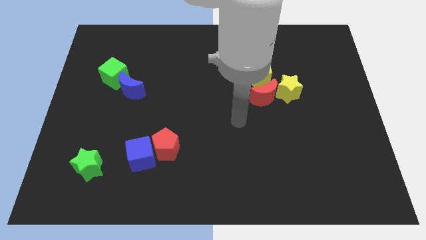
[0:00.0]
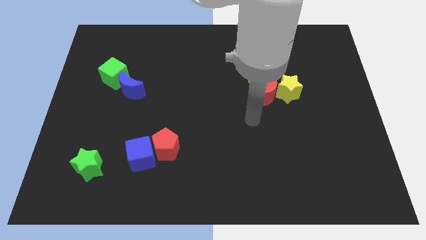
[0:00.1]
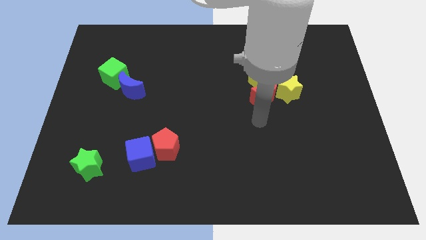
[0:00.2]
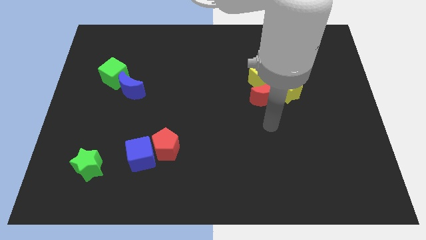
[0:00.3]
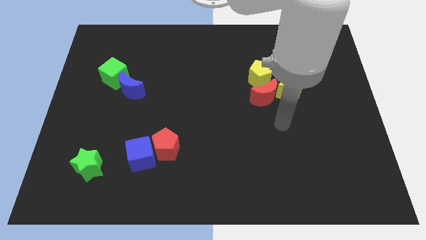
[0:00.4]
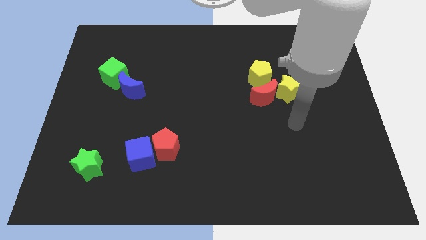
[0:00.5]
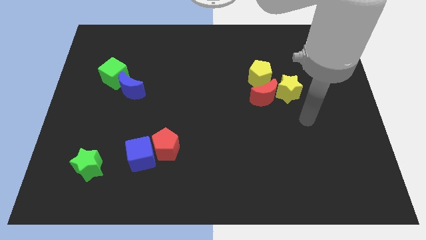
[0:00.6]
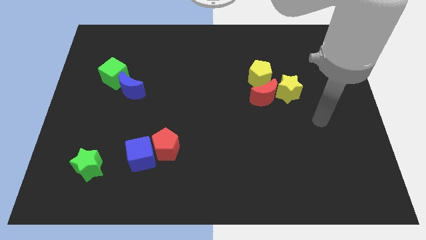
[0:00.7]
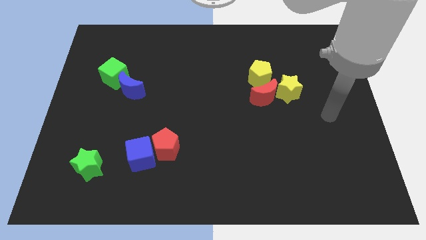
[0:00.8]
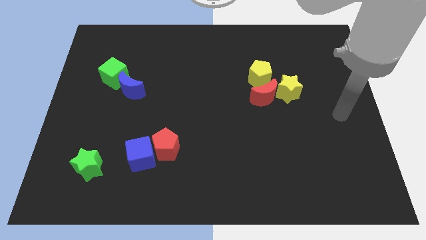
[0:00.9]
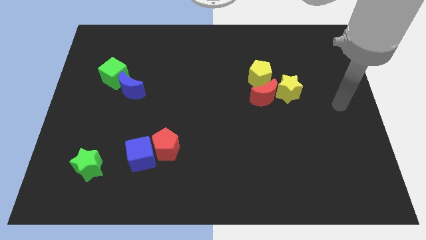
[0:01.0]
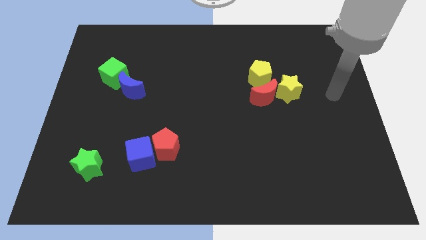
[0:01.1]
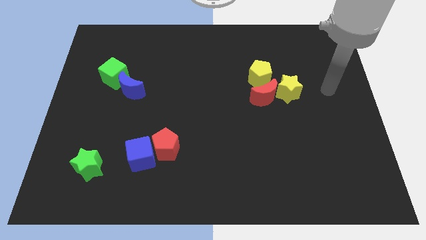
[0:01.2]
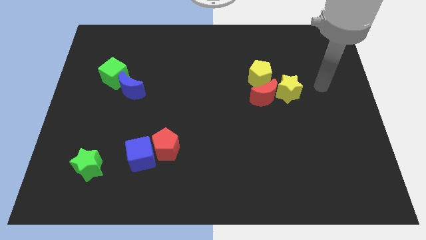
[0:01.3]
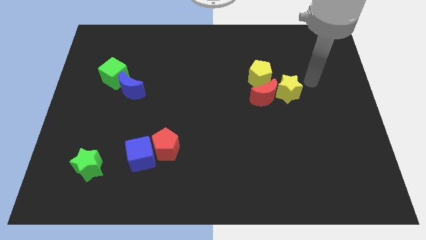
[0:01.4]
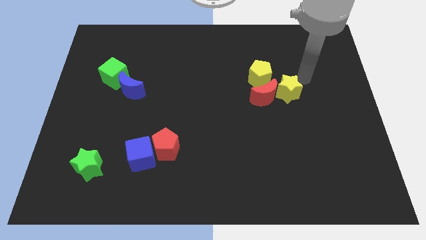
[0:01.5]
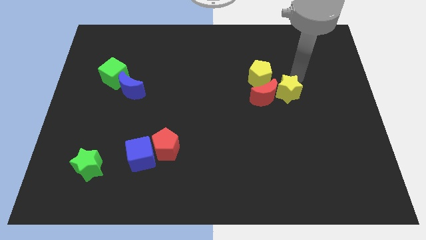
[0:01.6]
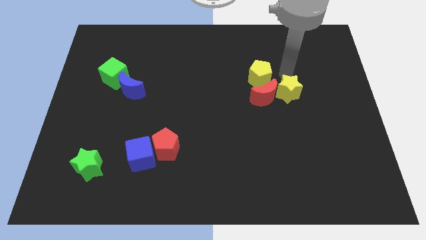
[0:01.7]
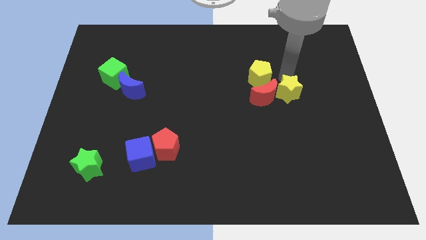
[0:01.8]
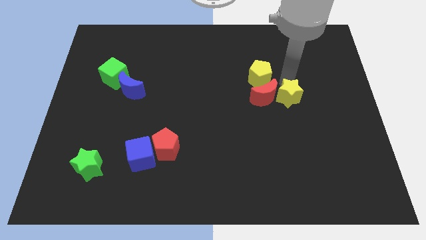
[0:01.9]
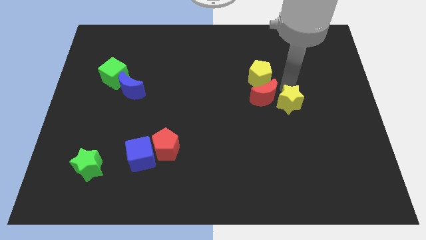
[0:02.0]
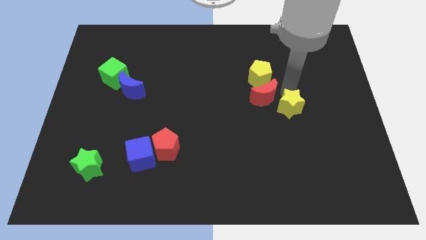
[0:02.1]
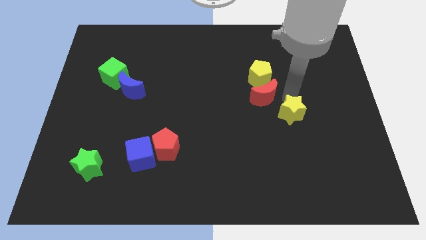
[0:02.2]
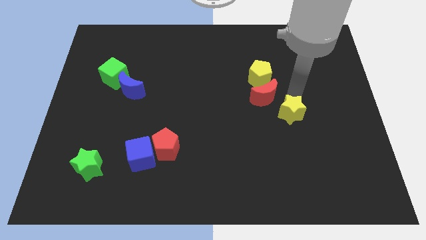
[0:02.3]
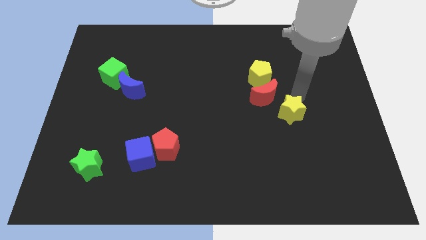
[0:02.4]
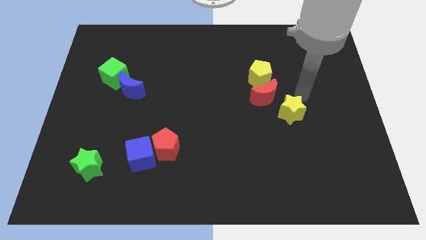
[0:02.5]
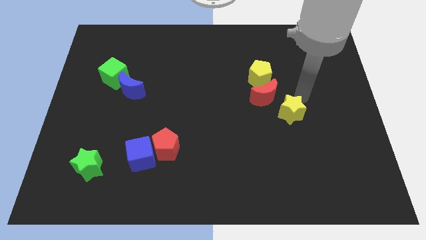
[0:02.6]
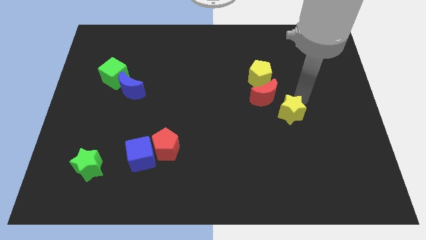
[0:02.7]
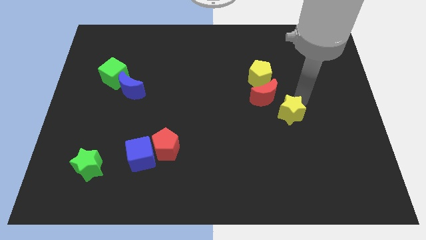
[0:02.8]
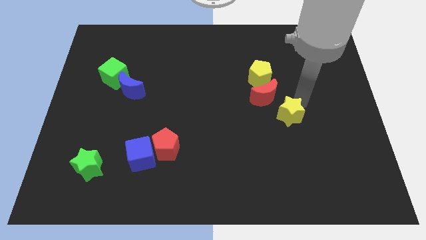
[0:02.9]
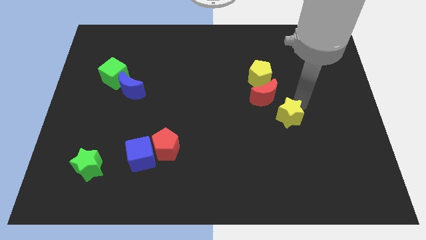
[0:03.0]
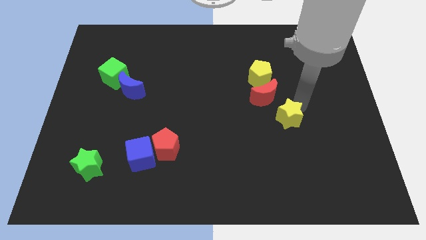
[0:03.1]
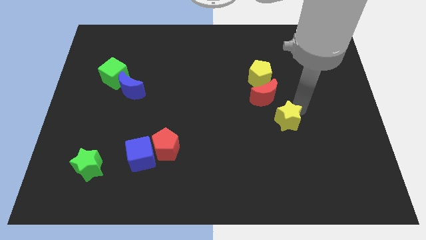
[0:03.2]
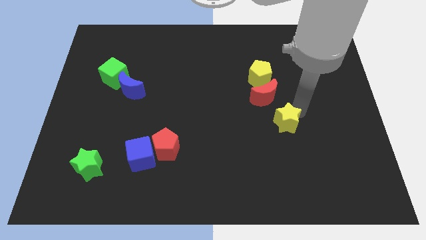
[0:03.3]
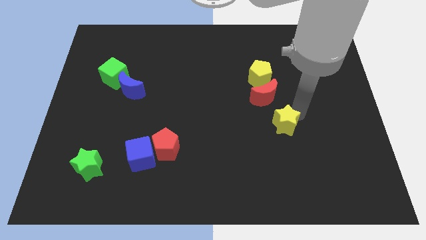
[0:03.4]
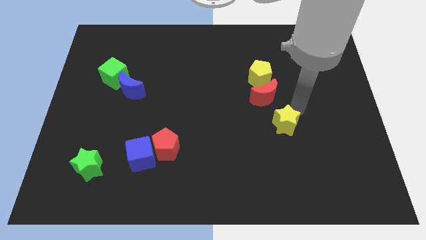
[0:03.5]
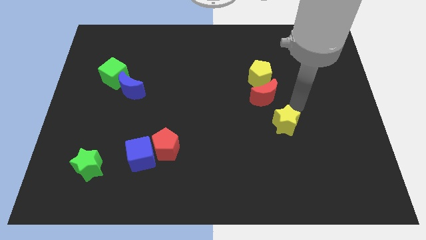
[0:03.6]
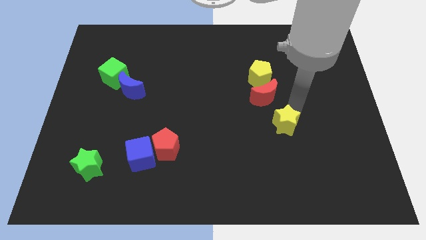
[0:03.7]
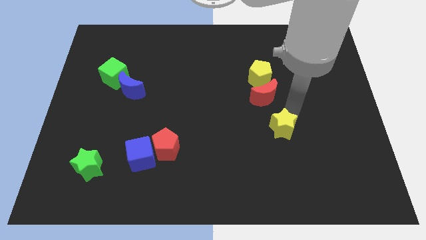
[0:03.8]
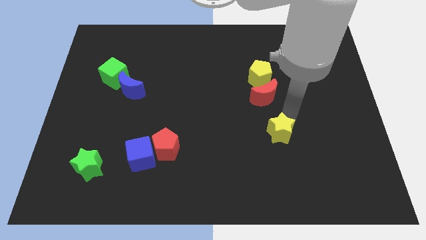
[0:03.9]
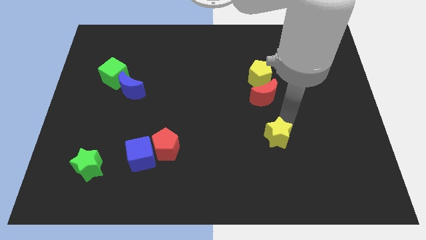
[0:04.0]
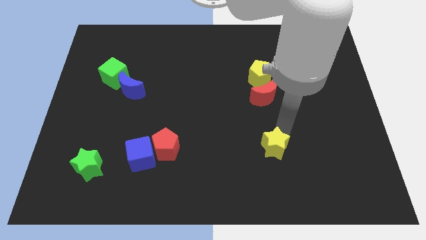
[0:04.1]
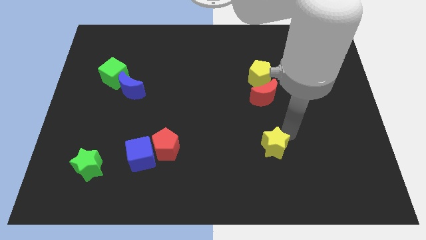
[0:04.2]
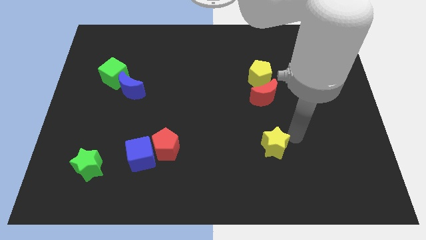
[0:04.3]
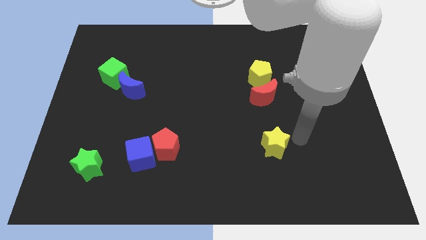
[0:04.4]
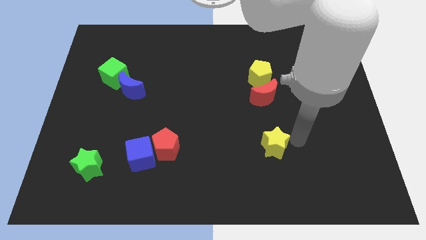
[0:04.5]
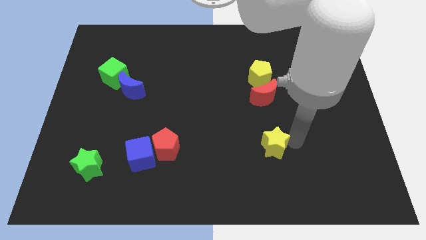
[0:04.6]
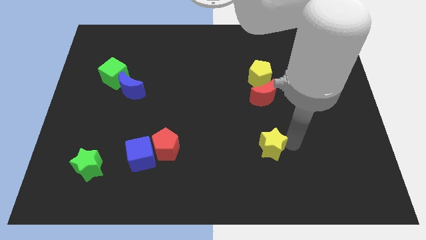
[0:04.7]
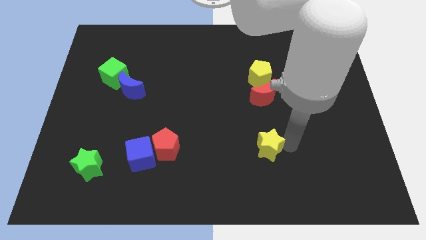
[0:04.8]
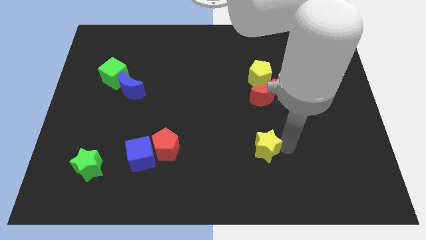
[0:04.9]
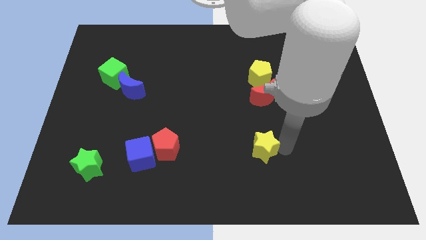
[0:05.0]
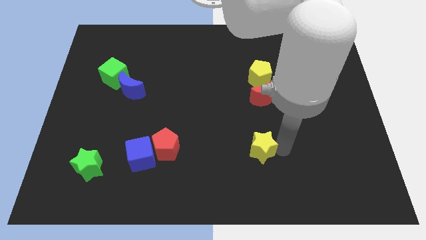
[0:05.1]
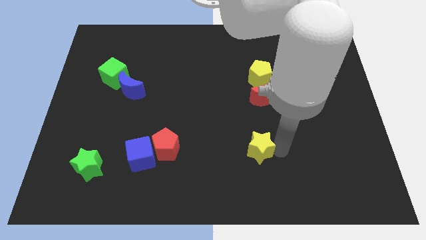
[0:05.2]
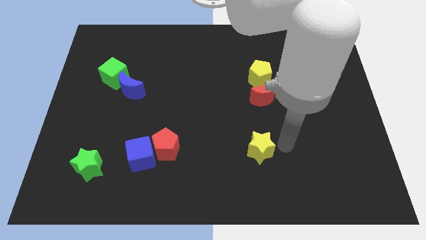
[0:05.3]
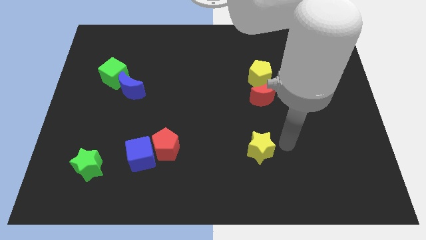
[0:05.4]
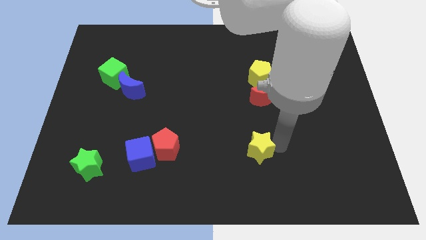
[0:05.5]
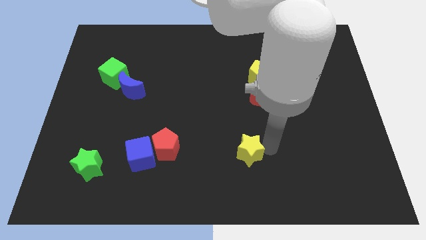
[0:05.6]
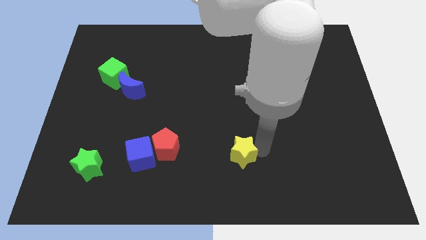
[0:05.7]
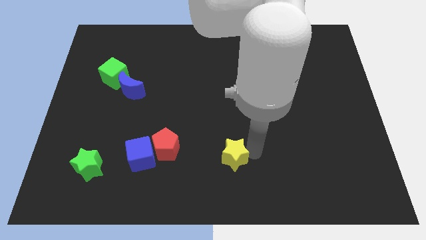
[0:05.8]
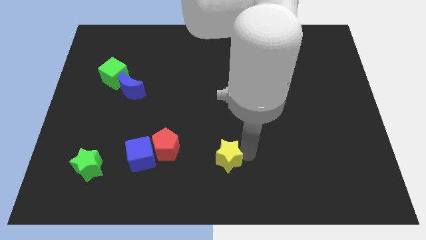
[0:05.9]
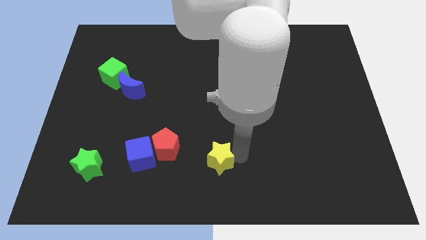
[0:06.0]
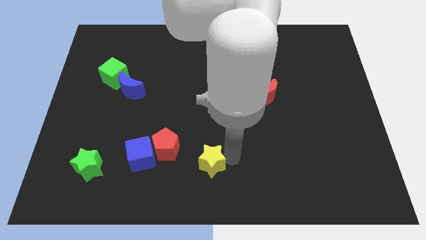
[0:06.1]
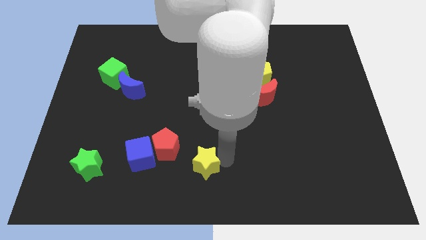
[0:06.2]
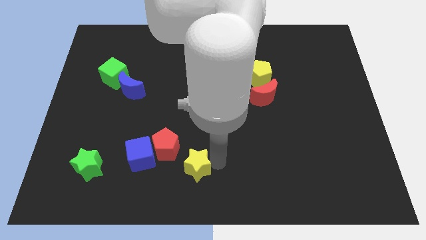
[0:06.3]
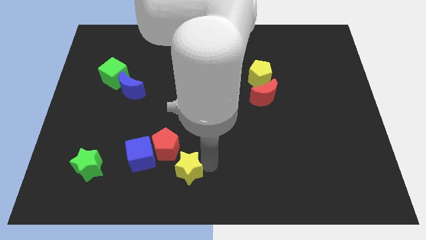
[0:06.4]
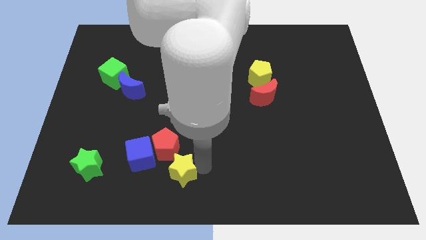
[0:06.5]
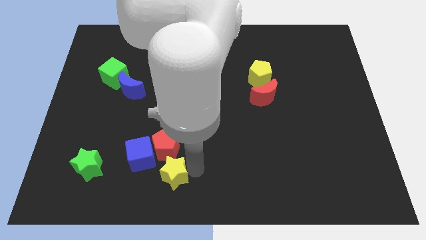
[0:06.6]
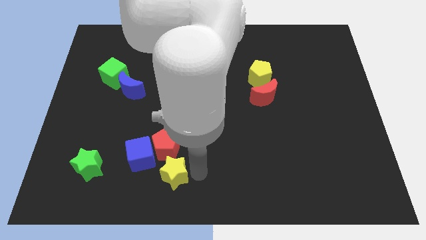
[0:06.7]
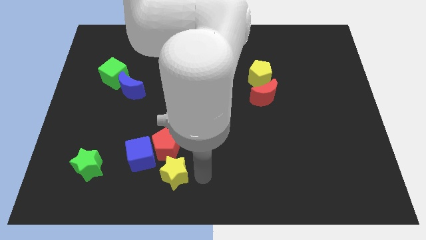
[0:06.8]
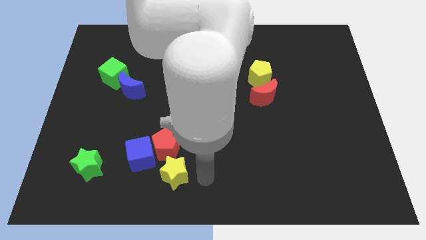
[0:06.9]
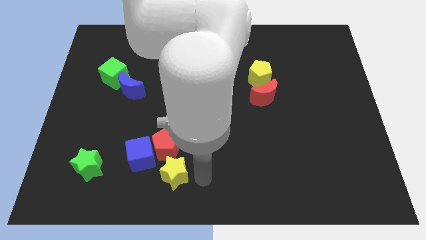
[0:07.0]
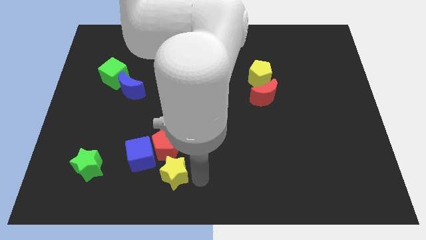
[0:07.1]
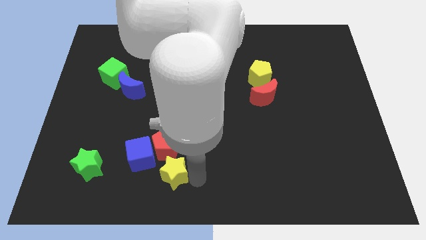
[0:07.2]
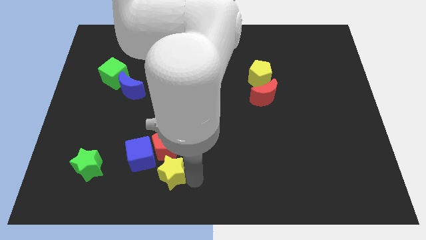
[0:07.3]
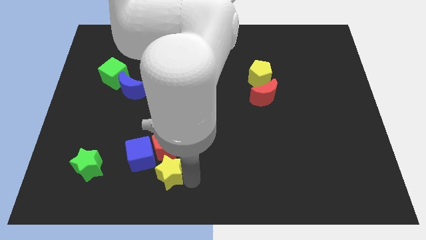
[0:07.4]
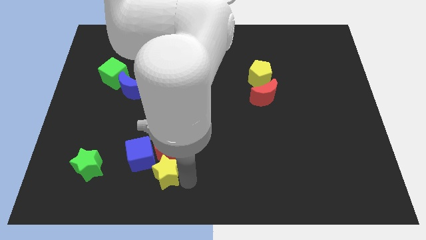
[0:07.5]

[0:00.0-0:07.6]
push the yellow star to the bottom left side of the red pentagon

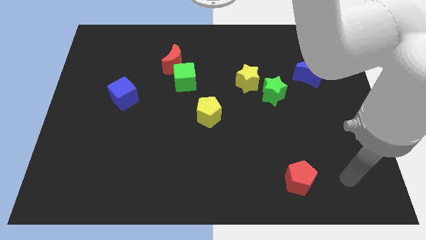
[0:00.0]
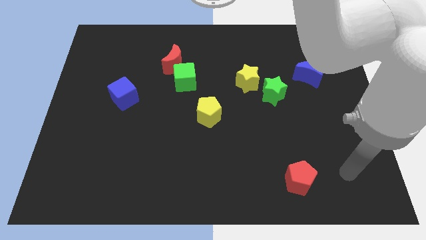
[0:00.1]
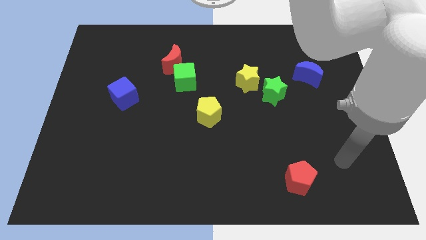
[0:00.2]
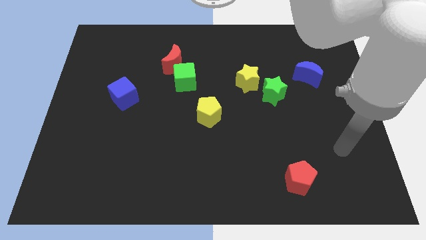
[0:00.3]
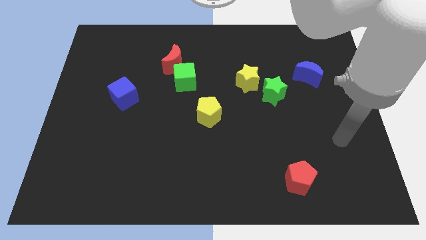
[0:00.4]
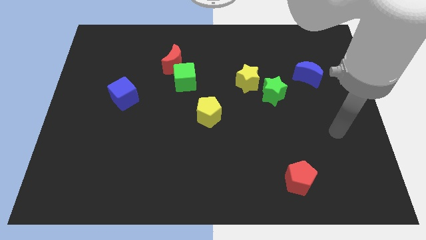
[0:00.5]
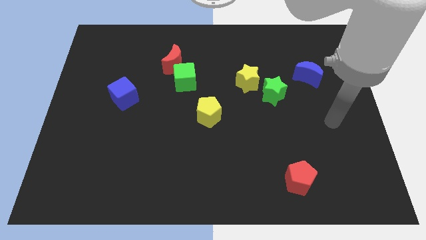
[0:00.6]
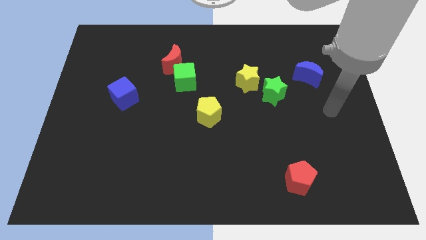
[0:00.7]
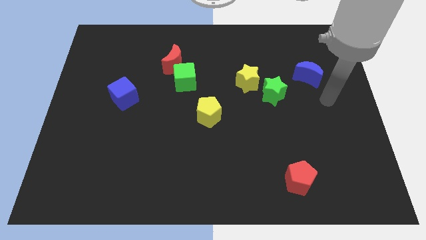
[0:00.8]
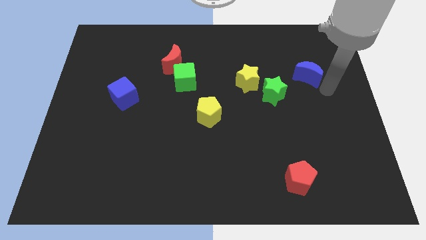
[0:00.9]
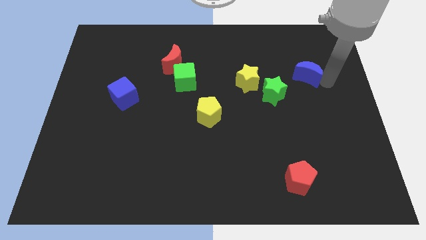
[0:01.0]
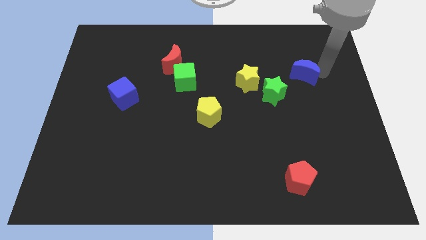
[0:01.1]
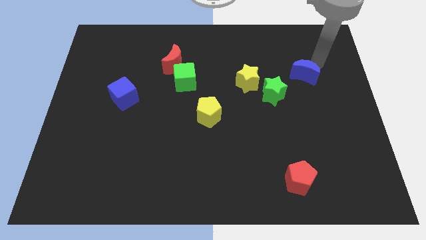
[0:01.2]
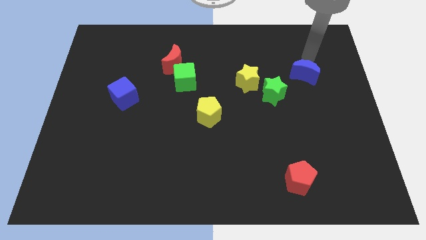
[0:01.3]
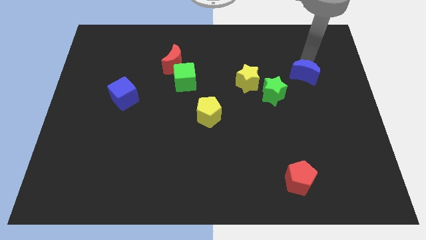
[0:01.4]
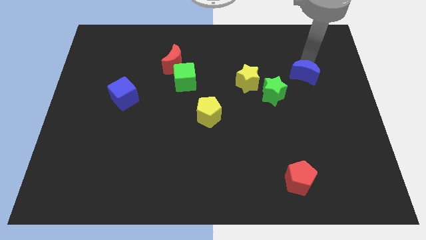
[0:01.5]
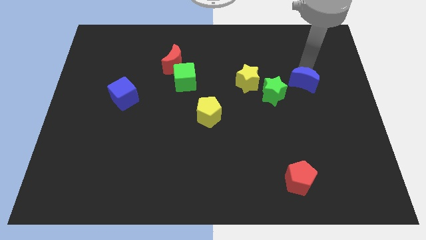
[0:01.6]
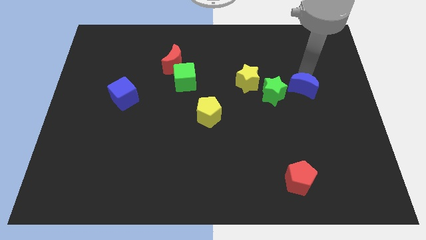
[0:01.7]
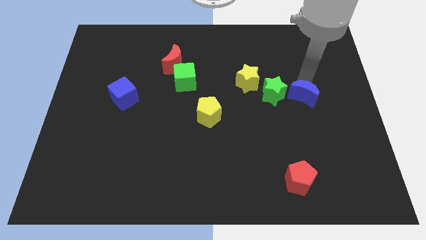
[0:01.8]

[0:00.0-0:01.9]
put the blue moon to the bottom right side of the green star
